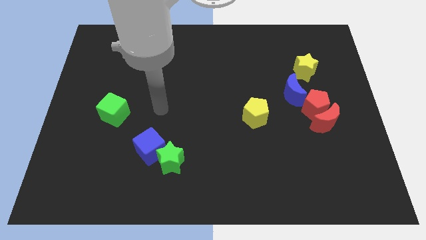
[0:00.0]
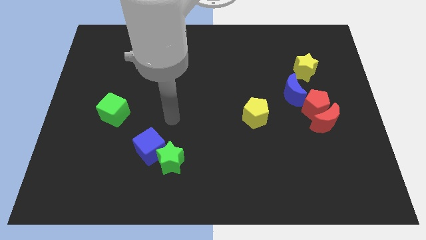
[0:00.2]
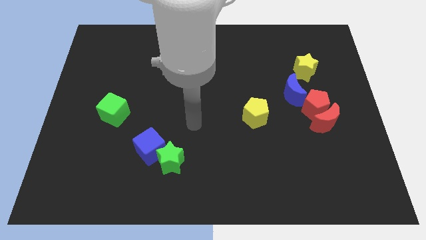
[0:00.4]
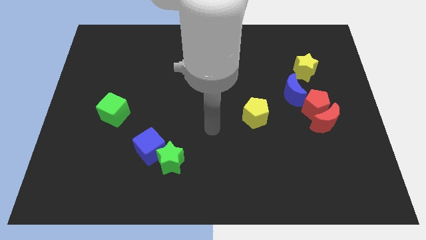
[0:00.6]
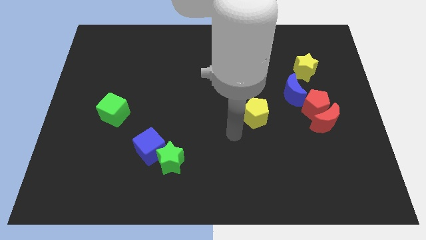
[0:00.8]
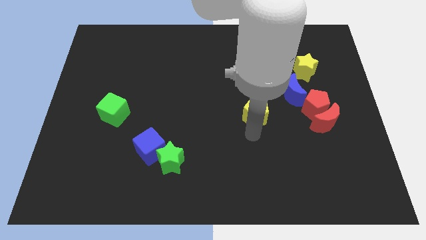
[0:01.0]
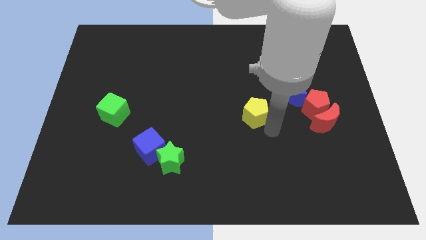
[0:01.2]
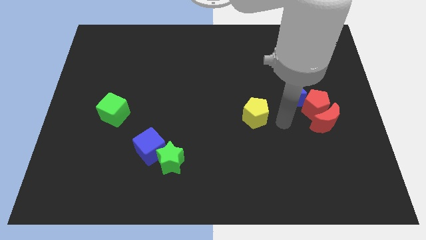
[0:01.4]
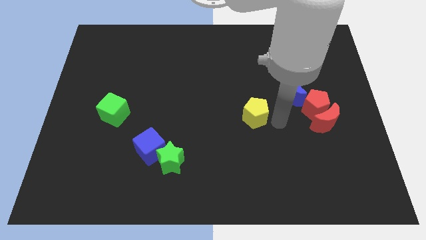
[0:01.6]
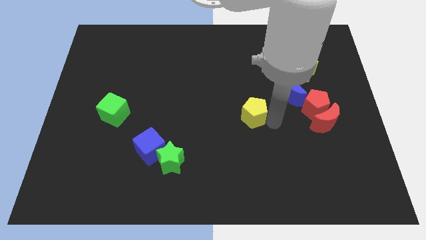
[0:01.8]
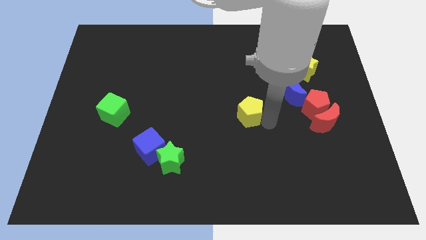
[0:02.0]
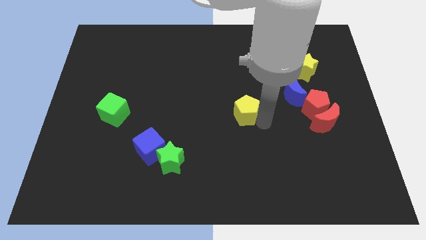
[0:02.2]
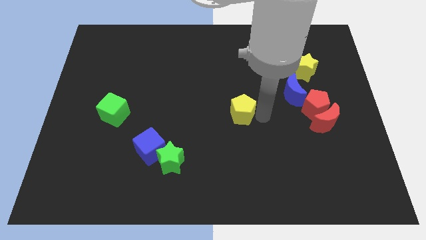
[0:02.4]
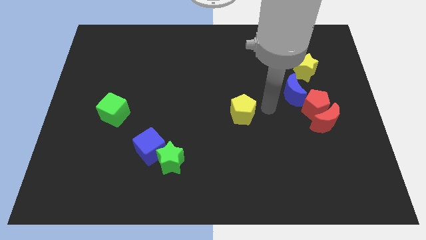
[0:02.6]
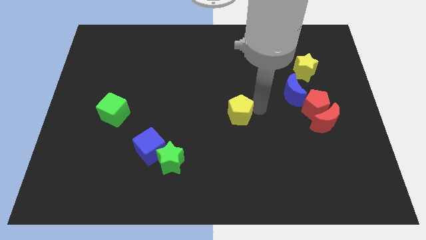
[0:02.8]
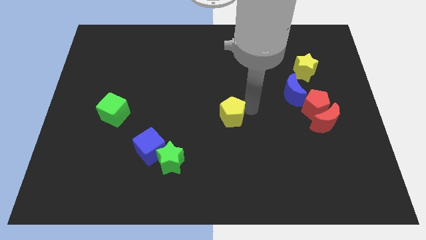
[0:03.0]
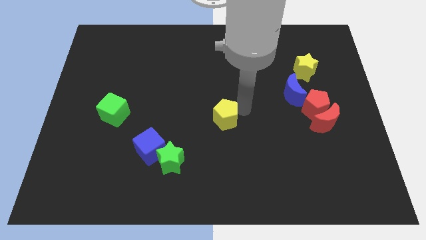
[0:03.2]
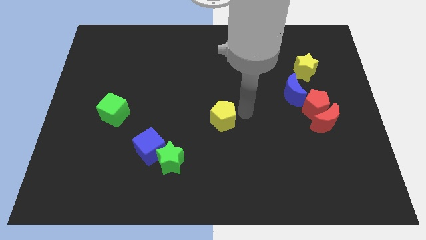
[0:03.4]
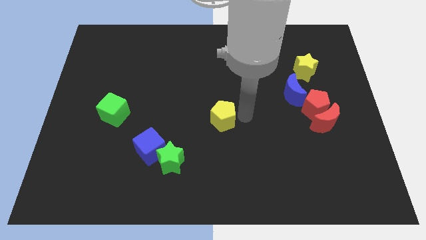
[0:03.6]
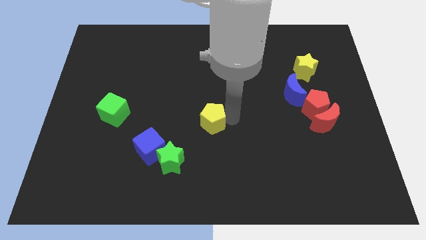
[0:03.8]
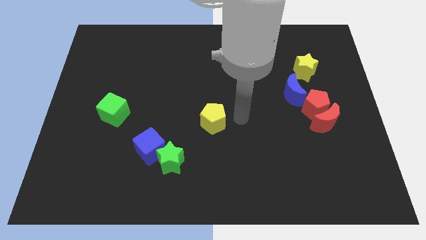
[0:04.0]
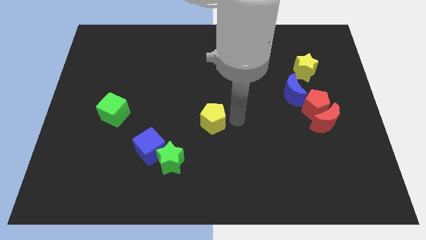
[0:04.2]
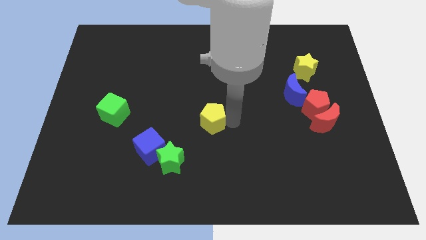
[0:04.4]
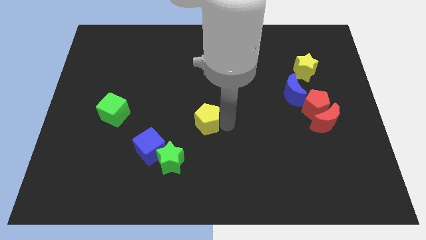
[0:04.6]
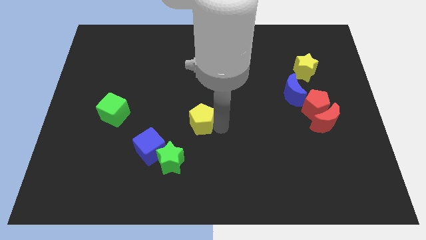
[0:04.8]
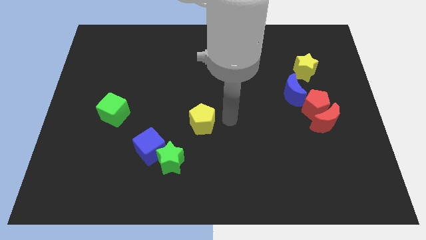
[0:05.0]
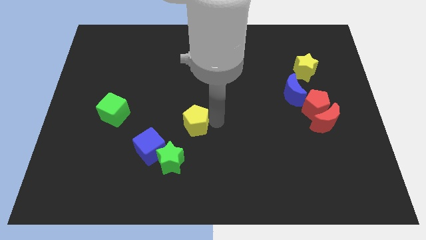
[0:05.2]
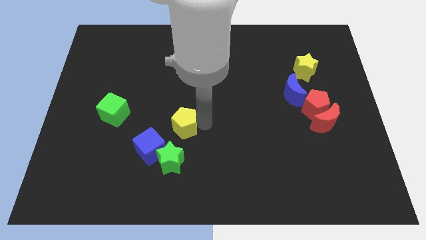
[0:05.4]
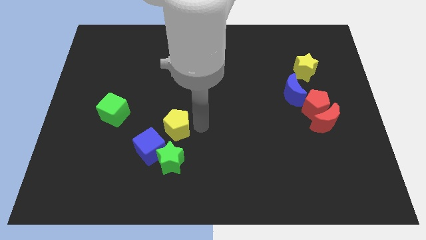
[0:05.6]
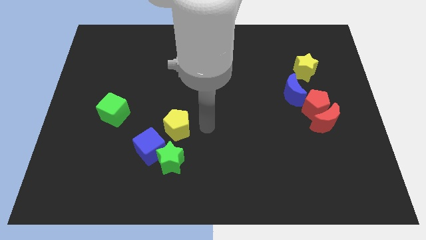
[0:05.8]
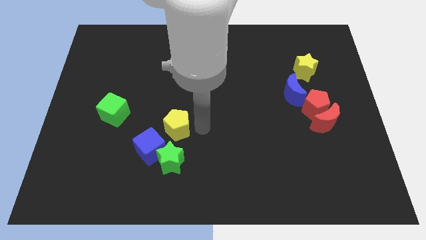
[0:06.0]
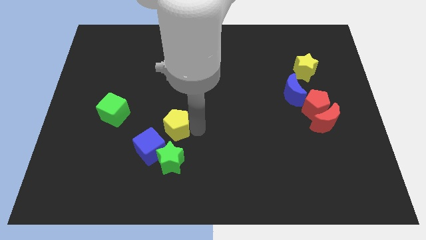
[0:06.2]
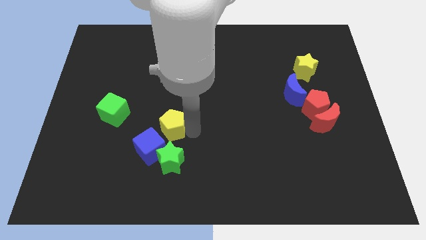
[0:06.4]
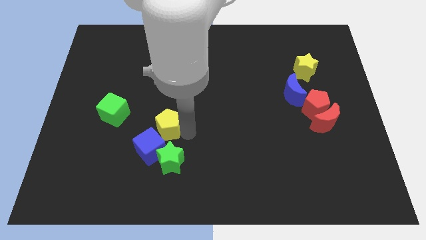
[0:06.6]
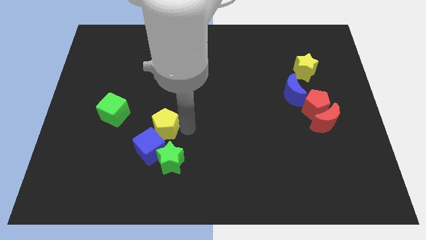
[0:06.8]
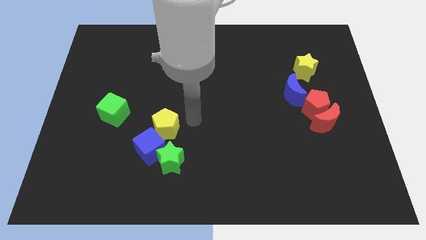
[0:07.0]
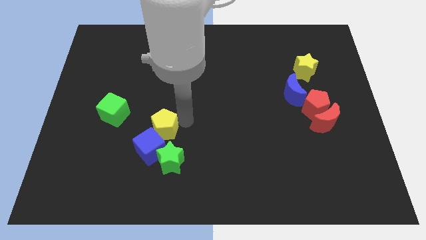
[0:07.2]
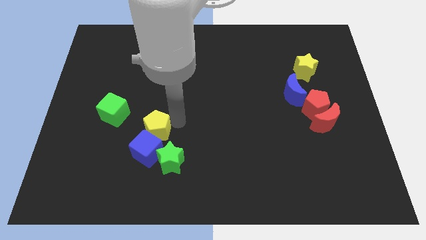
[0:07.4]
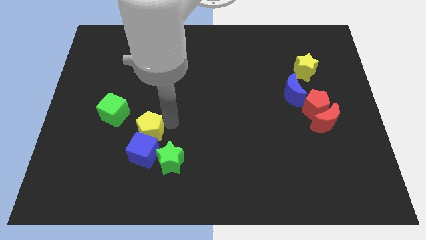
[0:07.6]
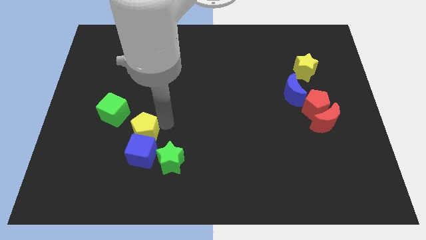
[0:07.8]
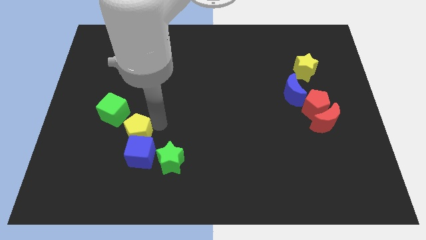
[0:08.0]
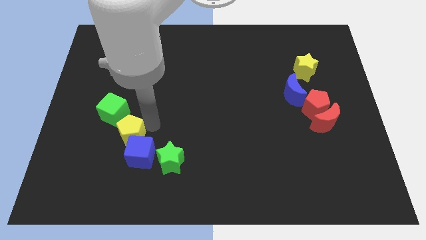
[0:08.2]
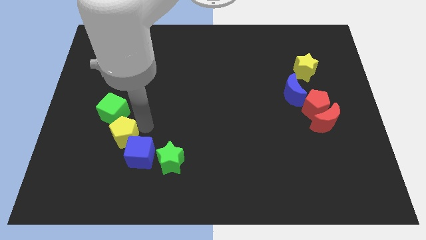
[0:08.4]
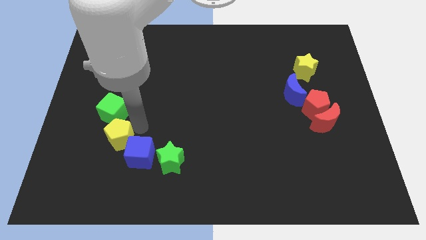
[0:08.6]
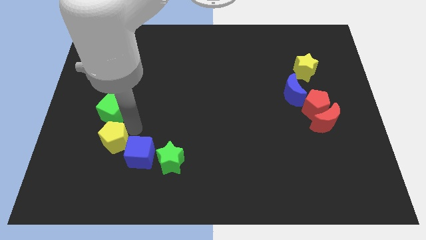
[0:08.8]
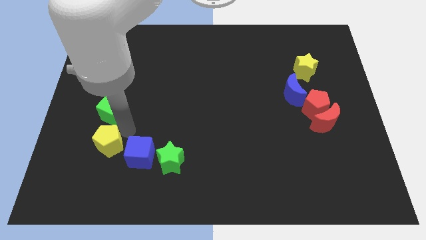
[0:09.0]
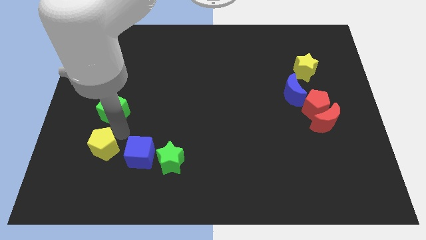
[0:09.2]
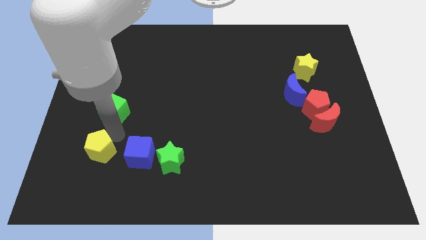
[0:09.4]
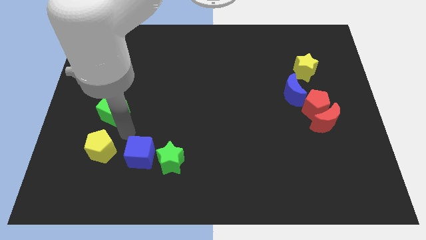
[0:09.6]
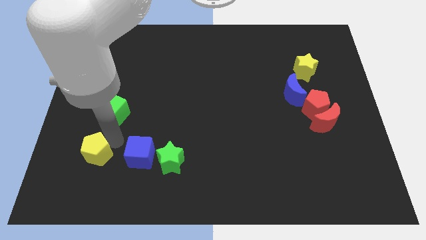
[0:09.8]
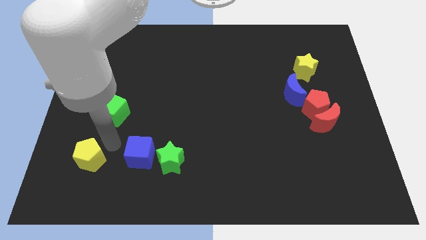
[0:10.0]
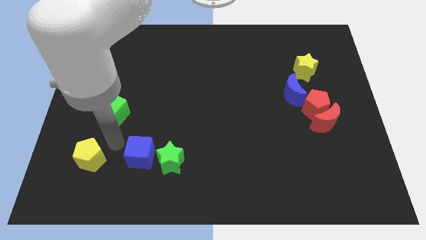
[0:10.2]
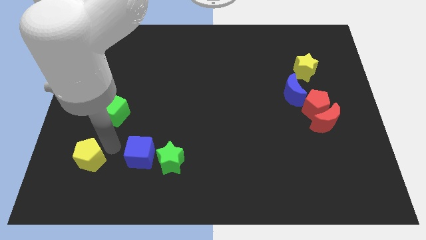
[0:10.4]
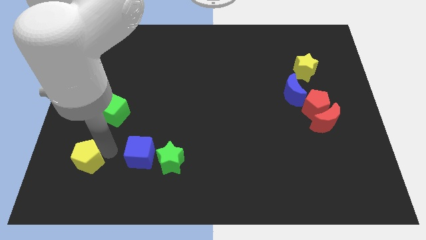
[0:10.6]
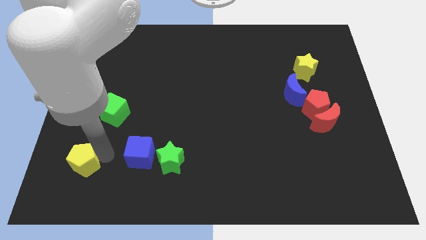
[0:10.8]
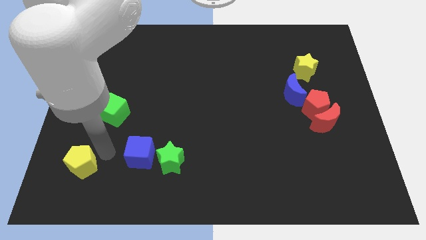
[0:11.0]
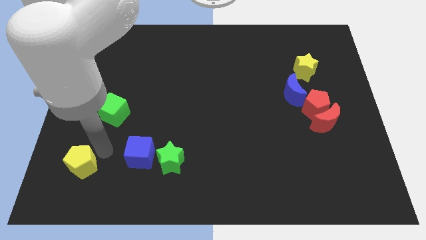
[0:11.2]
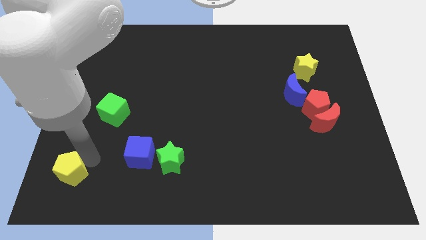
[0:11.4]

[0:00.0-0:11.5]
push the yellow pentagon to the bottom left corner

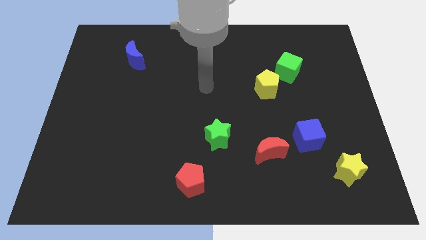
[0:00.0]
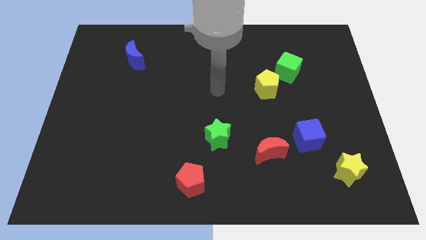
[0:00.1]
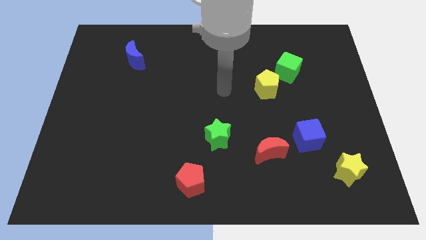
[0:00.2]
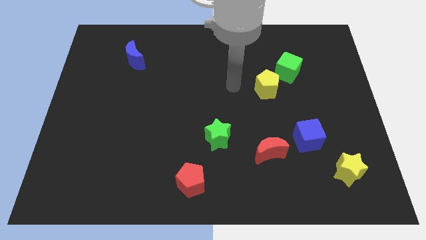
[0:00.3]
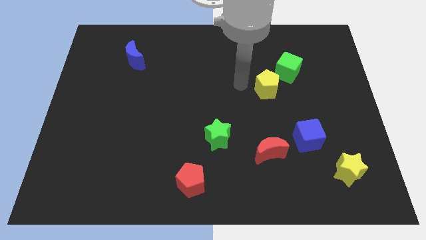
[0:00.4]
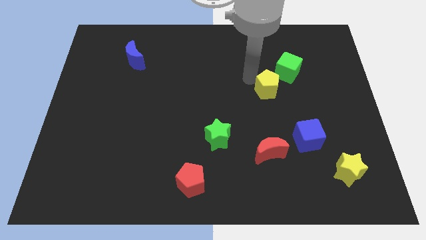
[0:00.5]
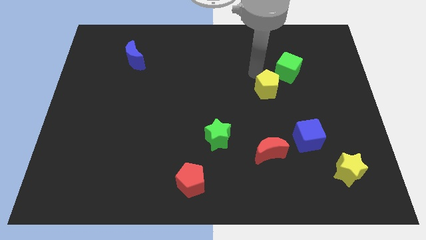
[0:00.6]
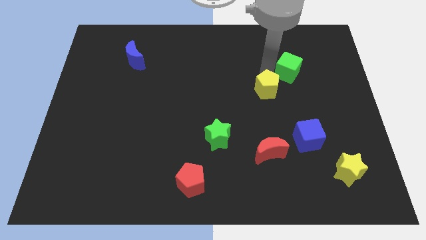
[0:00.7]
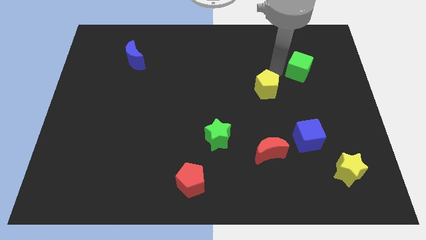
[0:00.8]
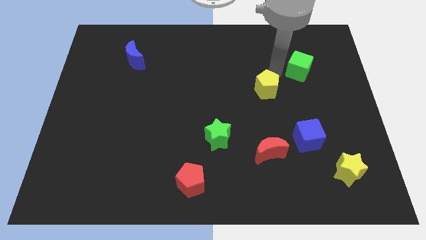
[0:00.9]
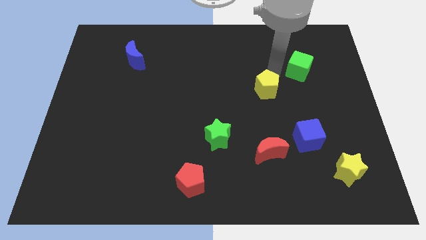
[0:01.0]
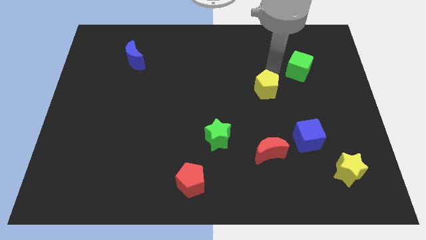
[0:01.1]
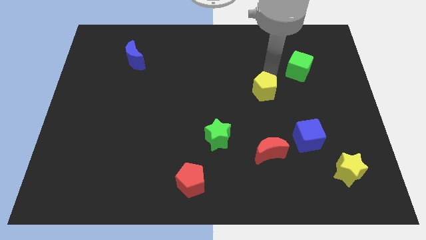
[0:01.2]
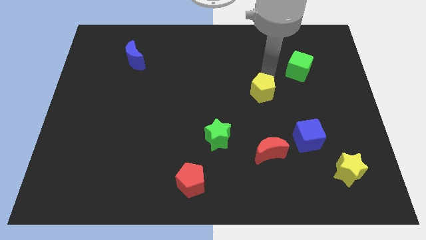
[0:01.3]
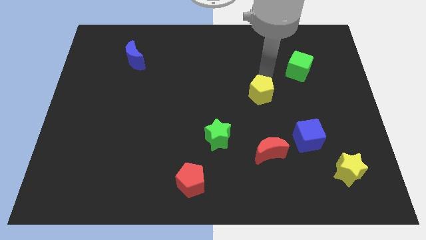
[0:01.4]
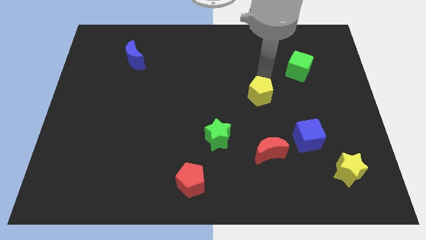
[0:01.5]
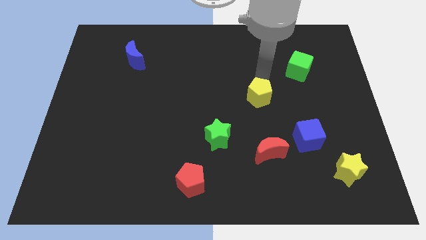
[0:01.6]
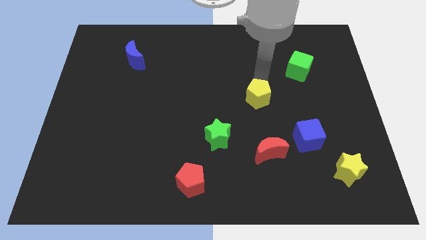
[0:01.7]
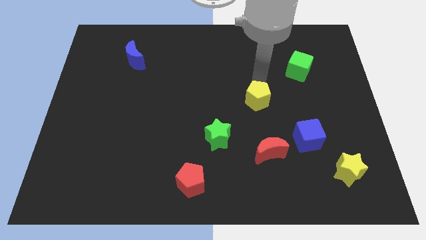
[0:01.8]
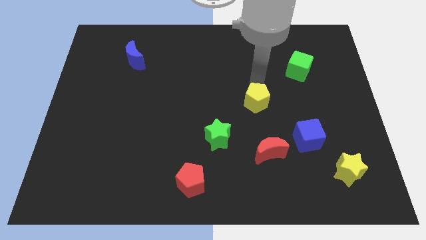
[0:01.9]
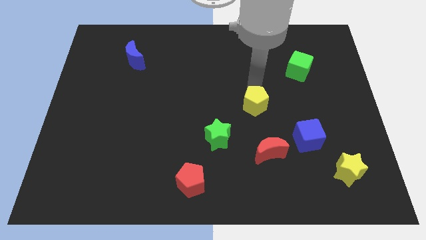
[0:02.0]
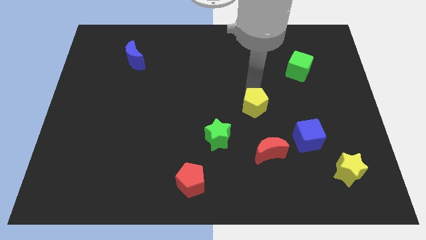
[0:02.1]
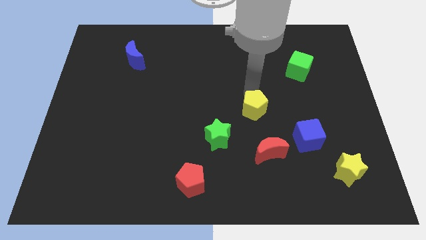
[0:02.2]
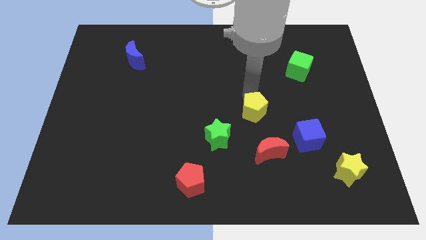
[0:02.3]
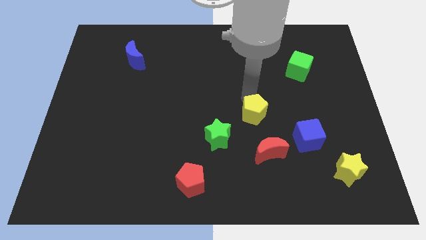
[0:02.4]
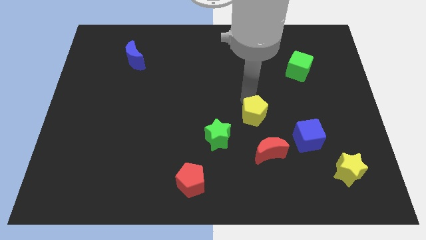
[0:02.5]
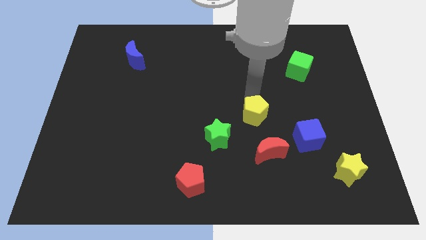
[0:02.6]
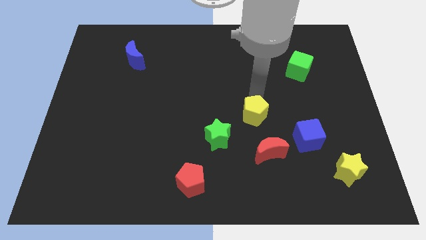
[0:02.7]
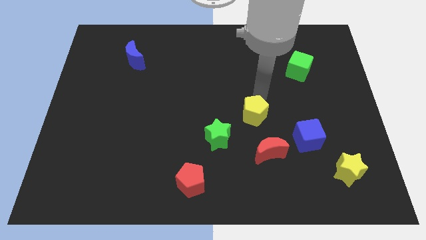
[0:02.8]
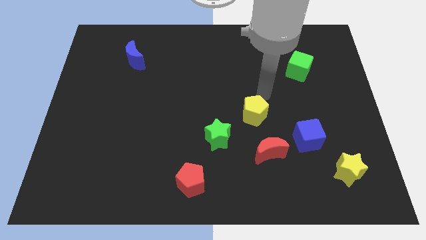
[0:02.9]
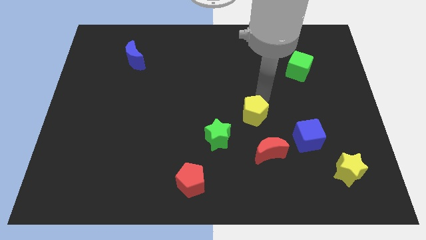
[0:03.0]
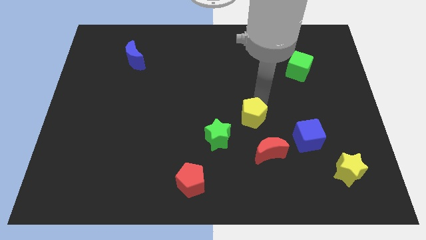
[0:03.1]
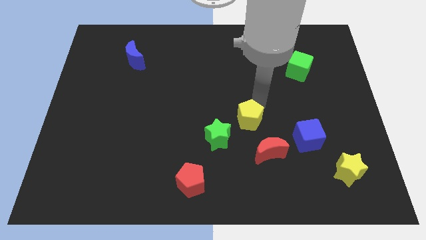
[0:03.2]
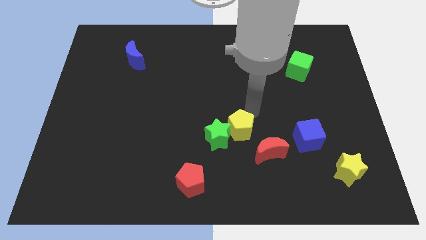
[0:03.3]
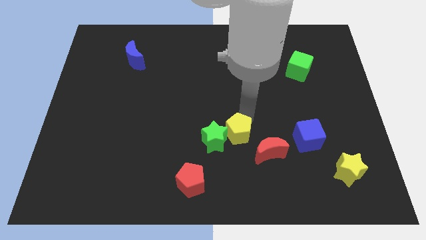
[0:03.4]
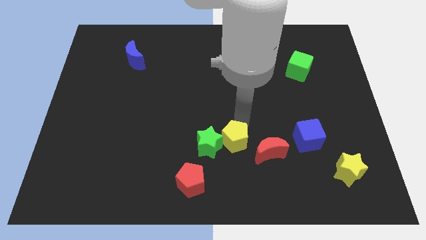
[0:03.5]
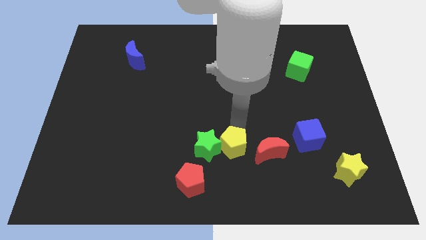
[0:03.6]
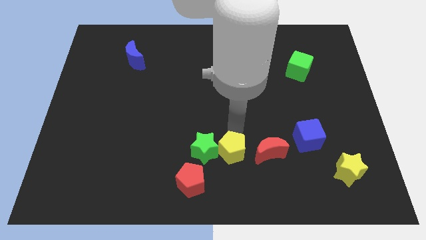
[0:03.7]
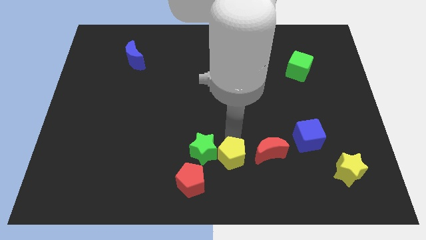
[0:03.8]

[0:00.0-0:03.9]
move the yellow pentagon to the bottom side
